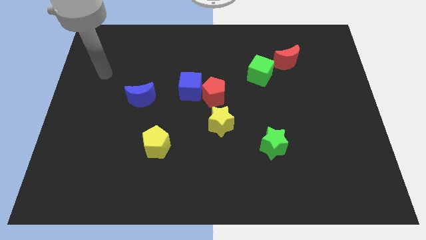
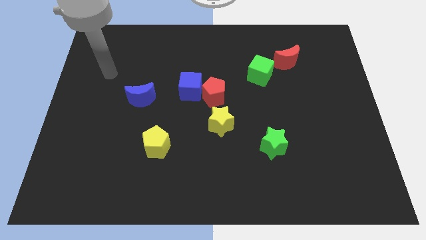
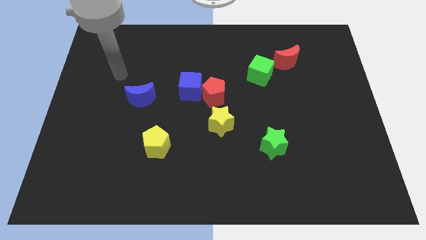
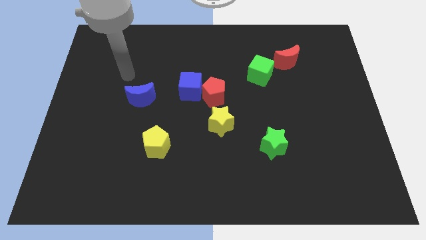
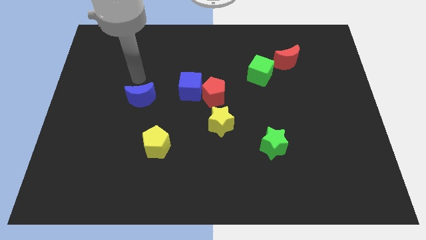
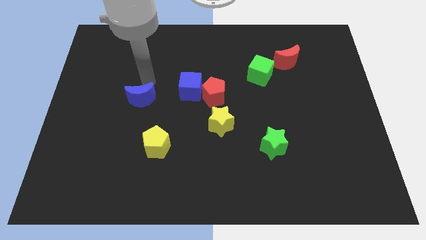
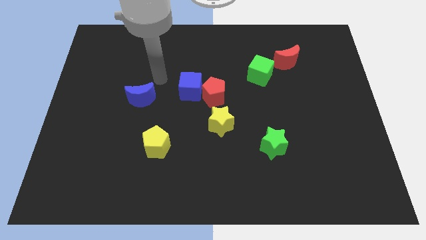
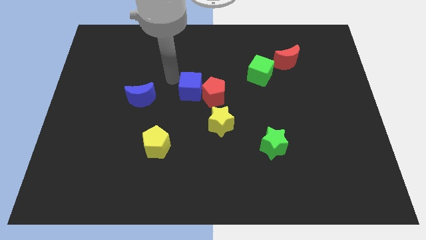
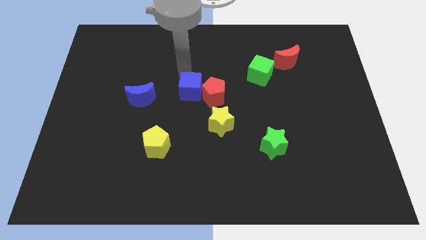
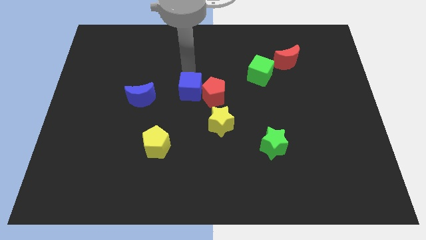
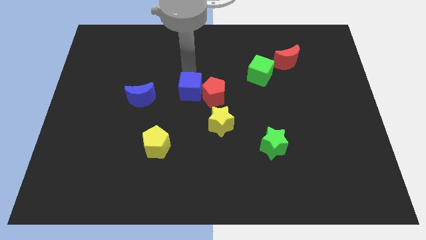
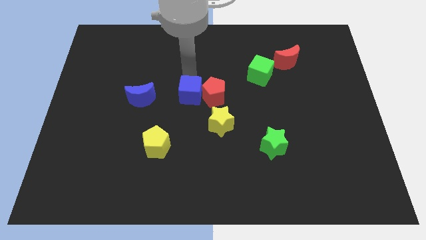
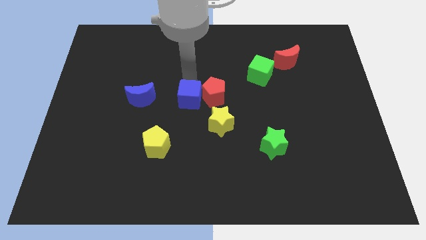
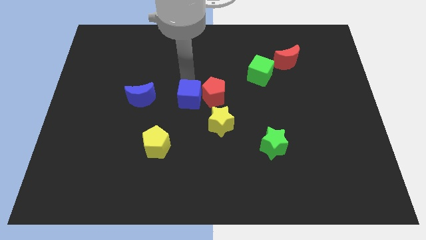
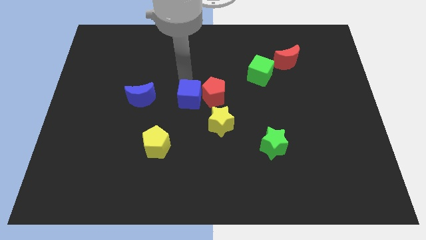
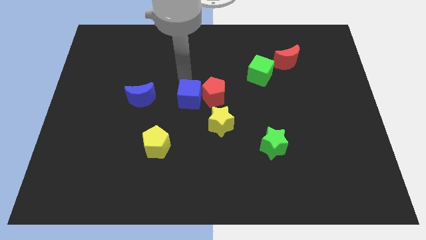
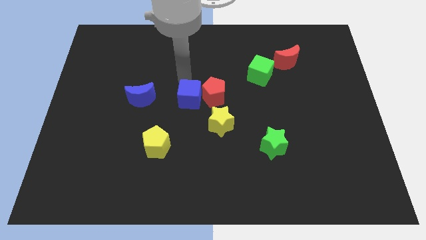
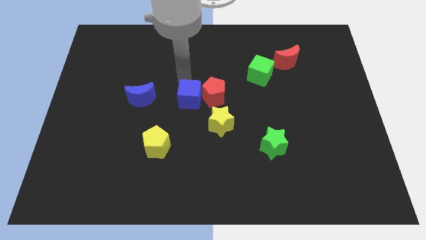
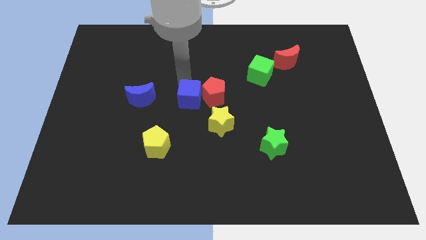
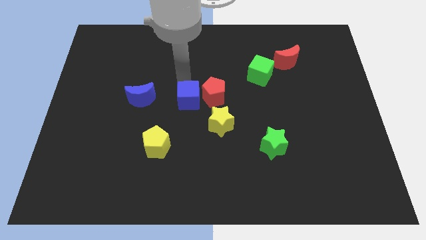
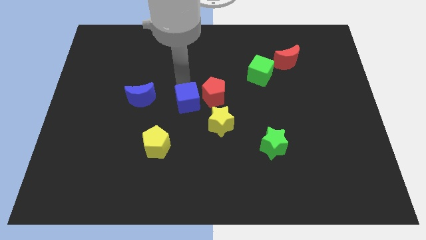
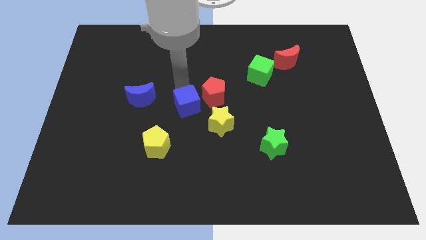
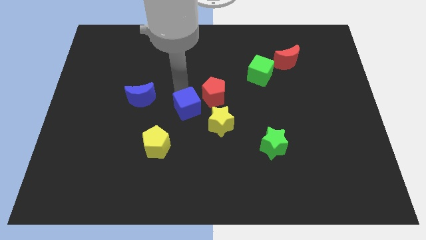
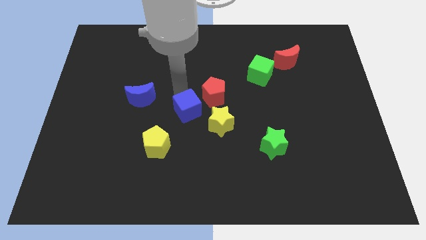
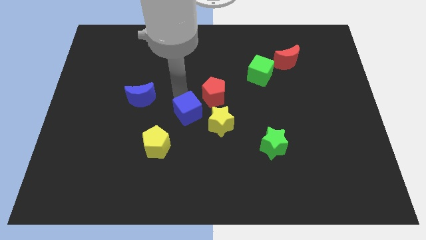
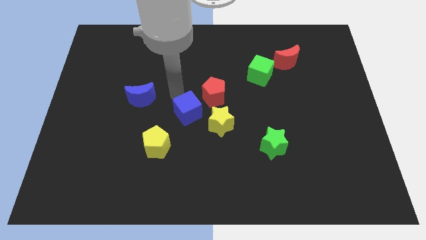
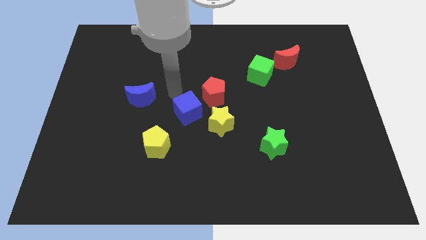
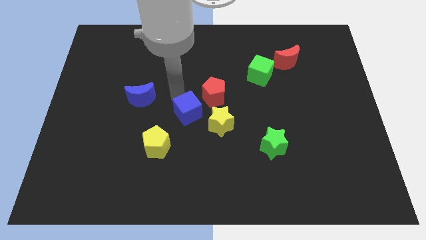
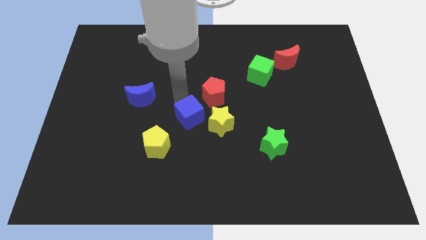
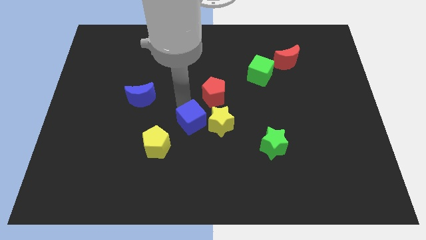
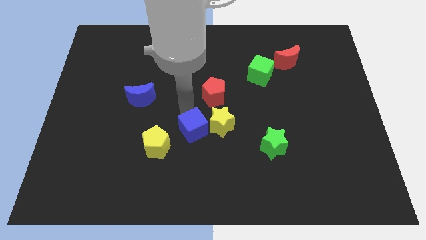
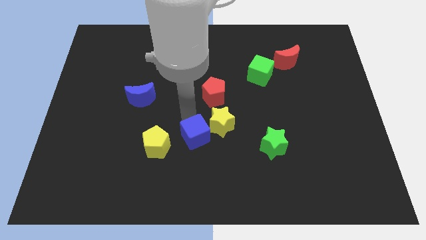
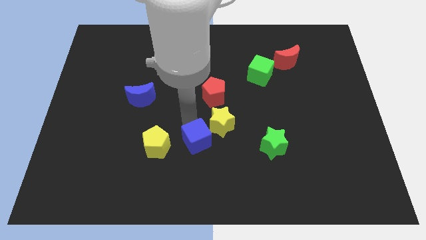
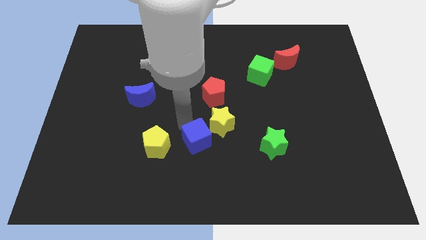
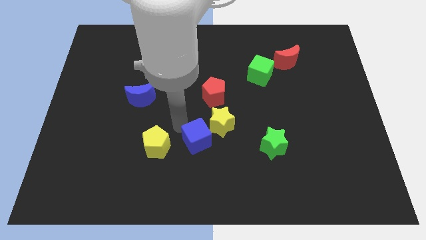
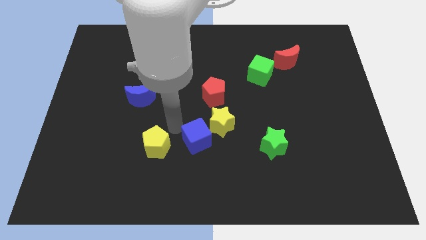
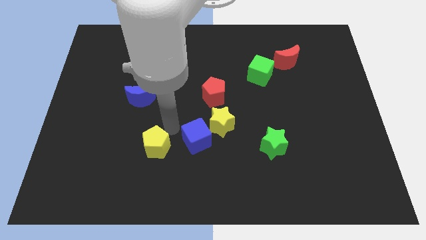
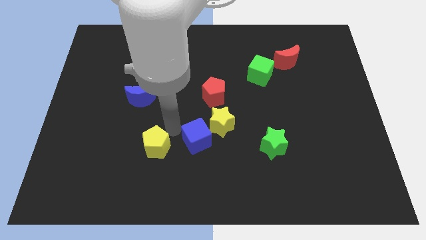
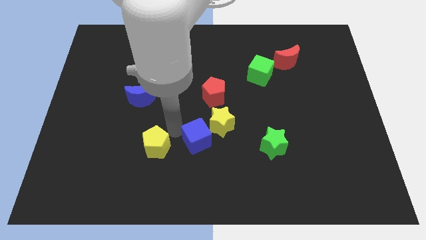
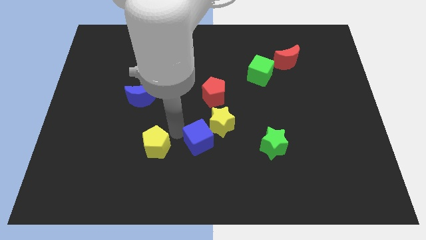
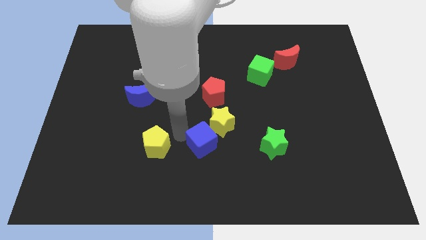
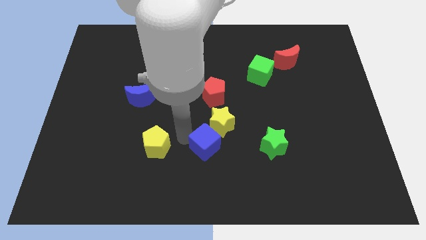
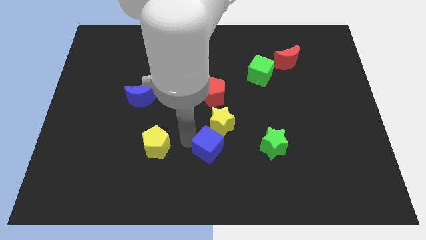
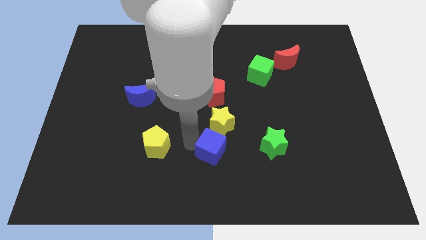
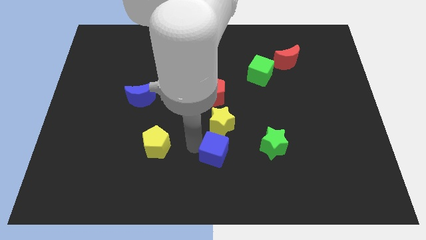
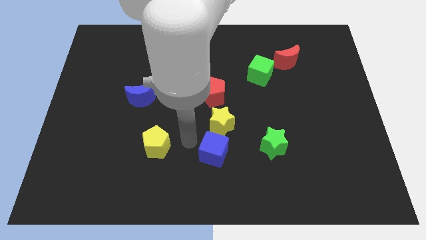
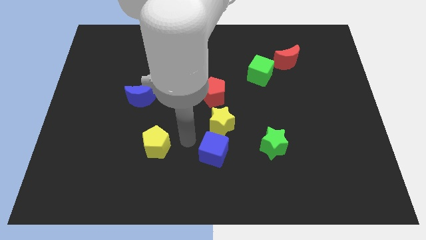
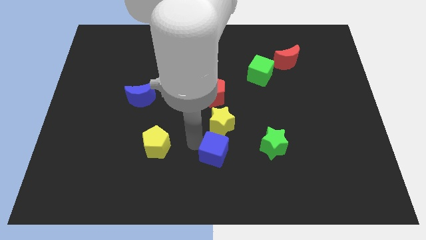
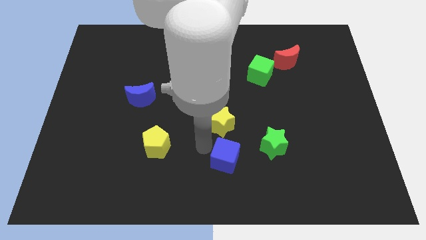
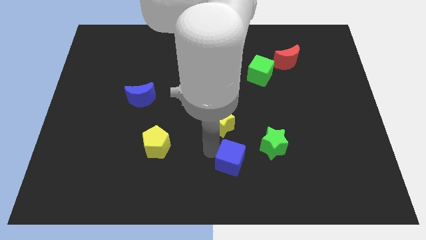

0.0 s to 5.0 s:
slide the blue cube to the bottom left side of the green star

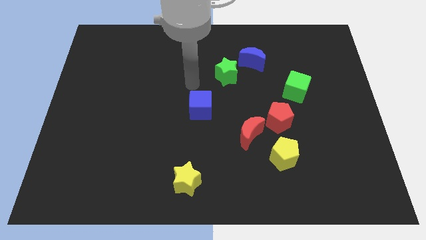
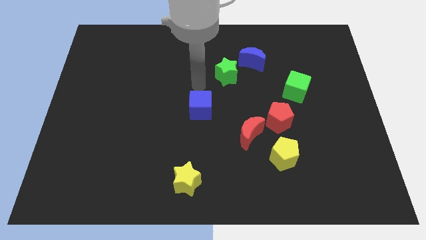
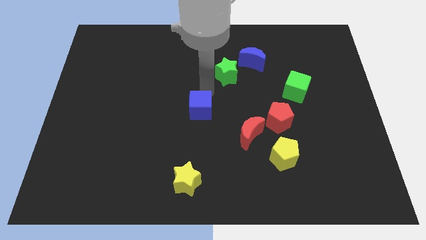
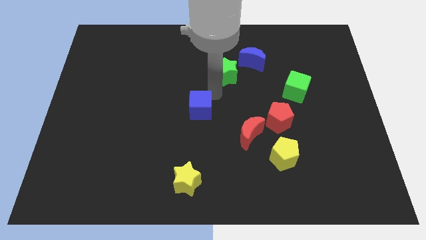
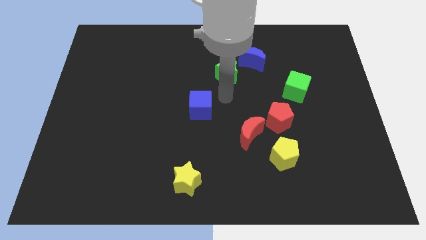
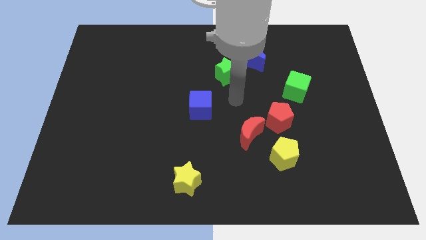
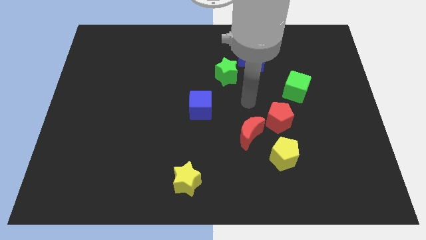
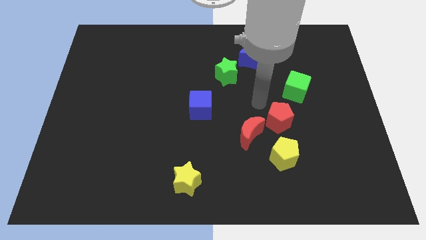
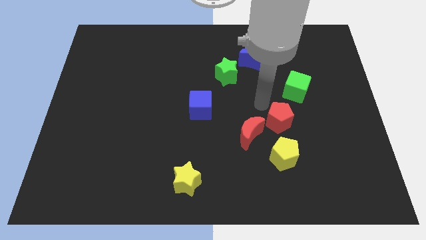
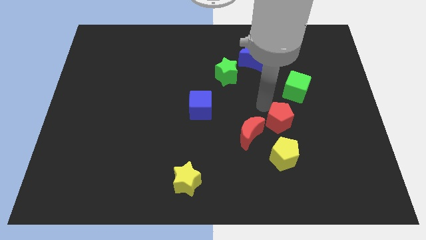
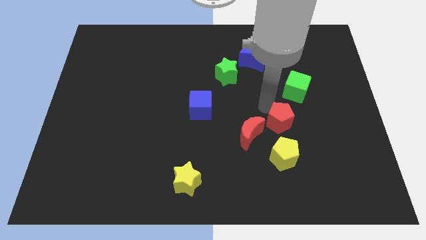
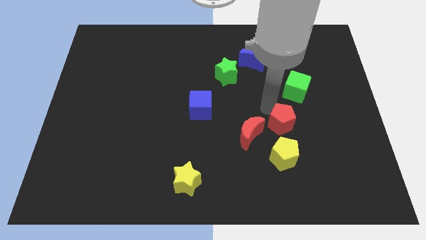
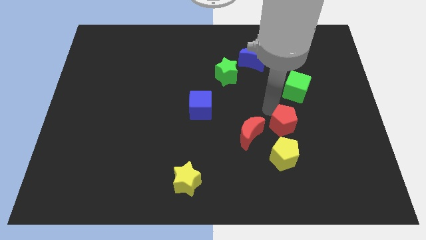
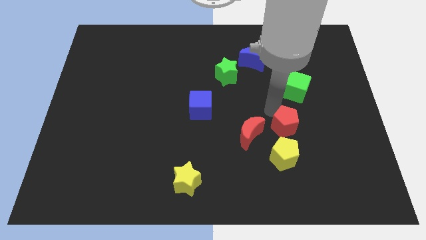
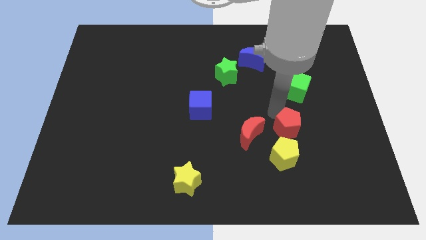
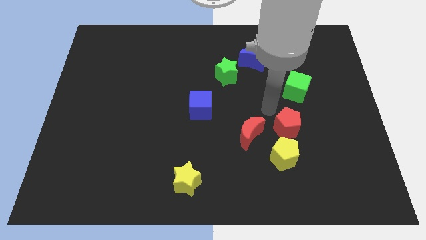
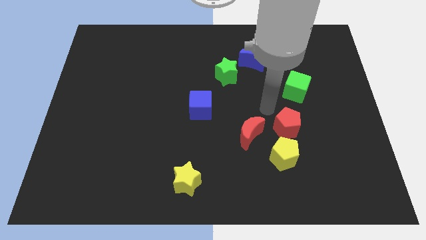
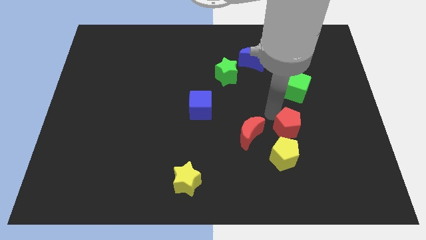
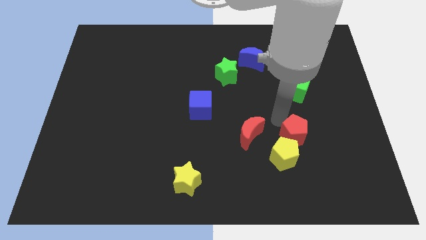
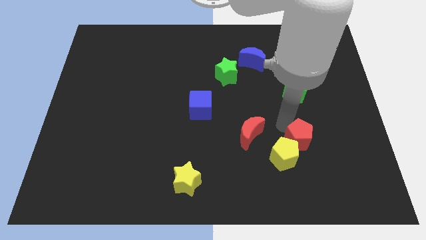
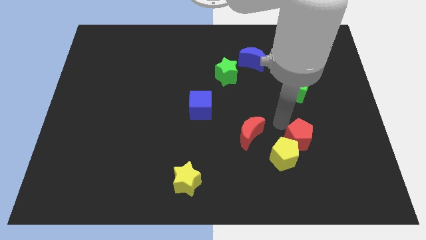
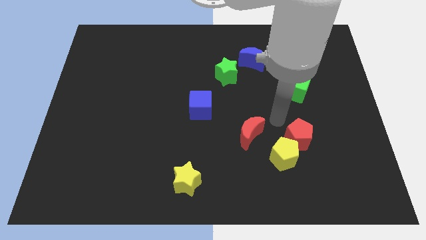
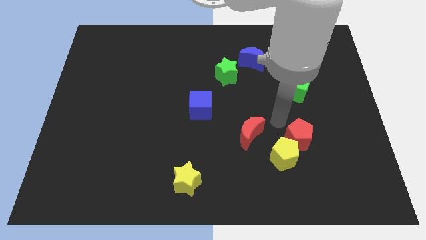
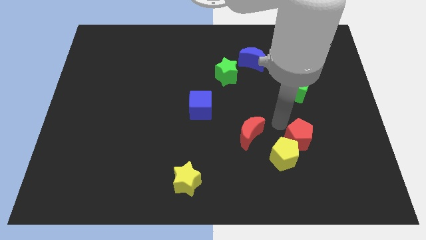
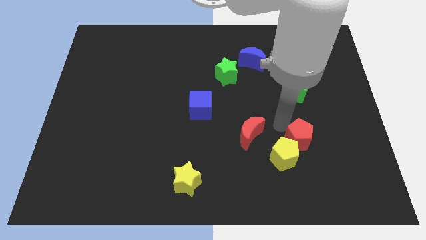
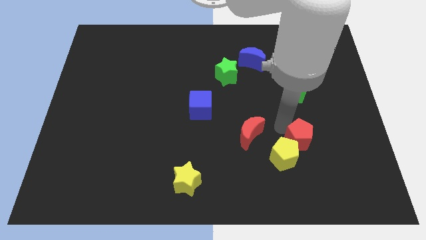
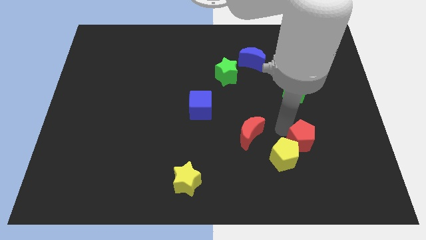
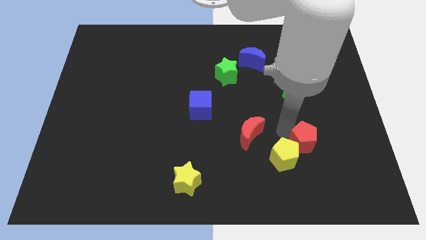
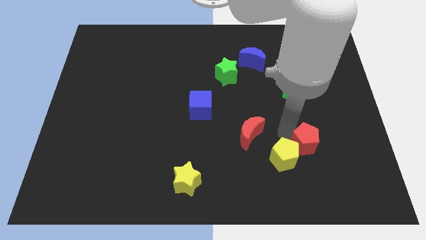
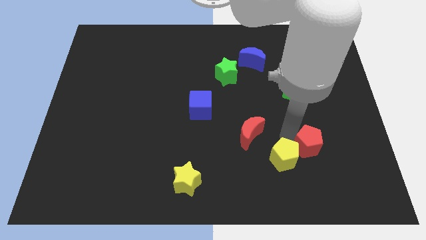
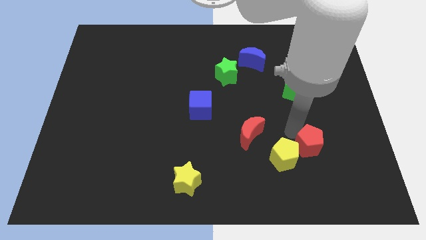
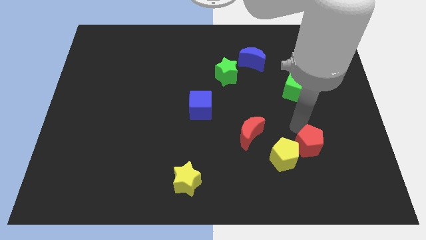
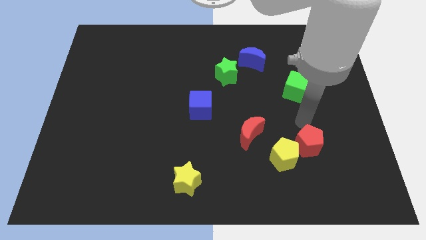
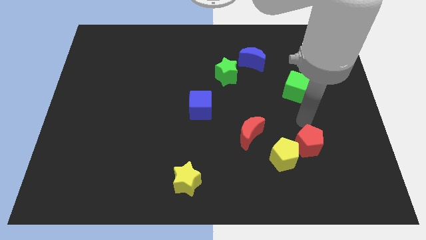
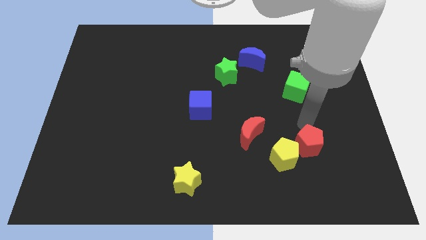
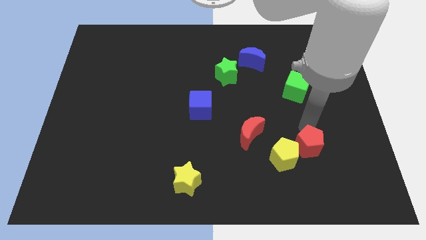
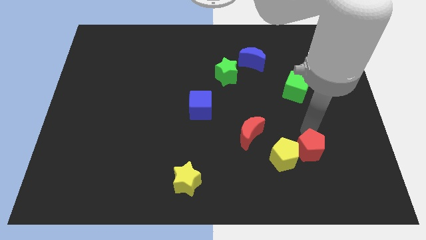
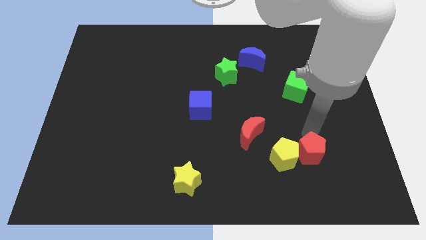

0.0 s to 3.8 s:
put the red pentagon to the bottom right of the yellow pentagon

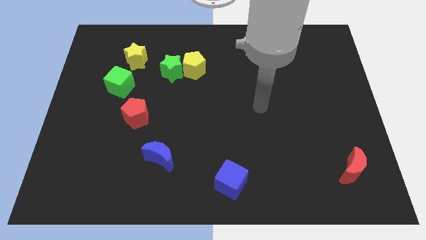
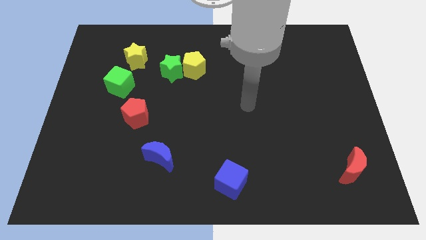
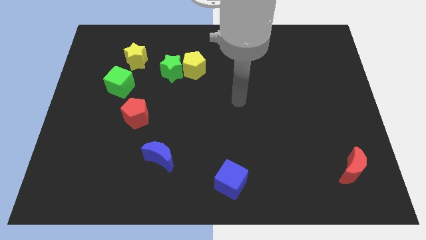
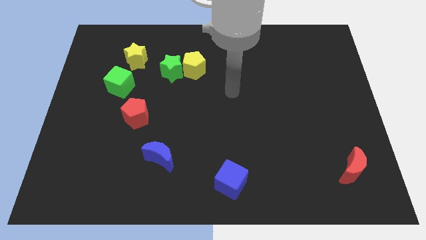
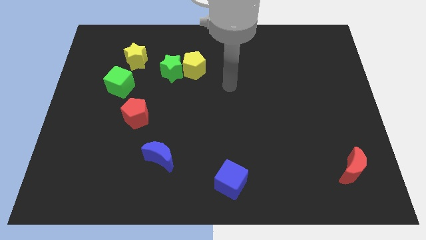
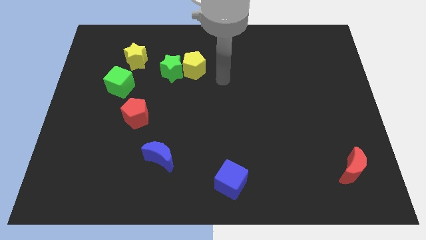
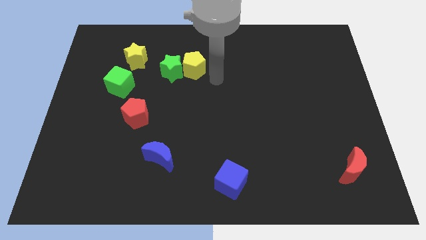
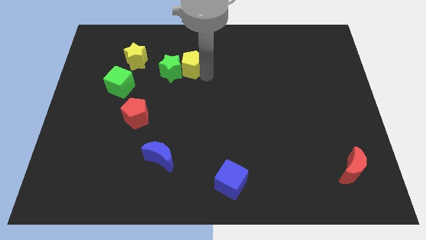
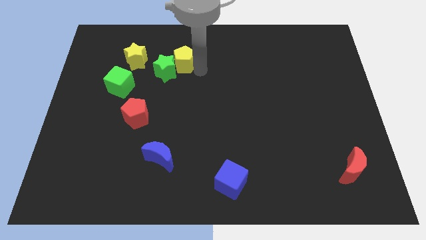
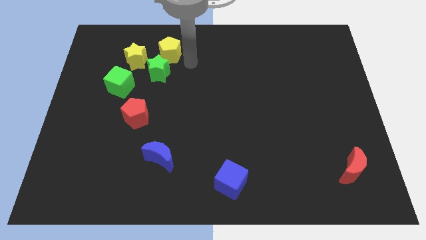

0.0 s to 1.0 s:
move the green star to the top of the red pentagon
